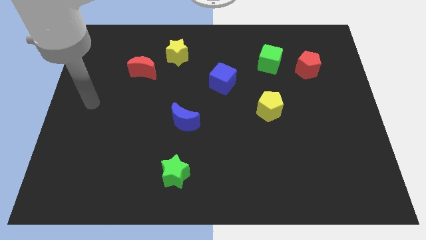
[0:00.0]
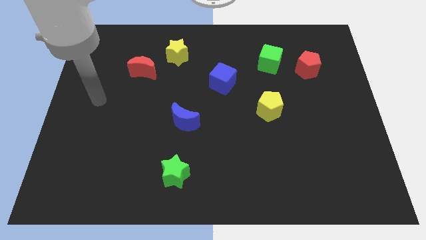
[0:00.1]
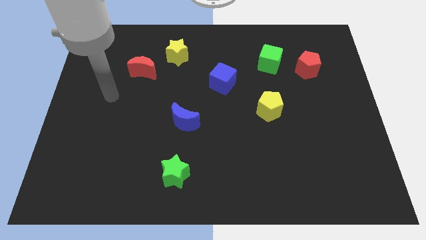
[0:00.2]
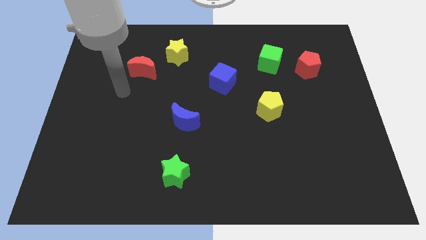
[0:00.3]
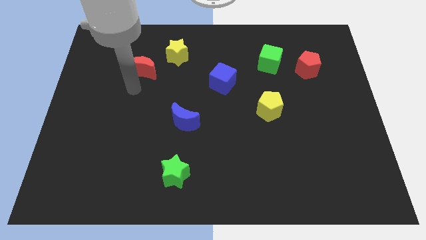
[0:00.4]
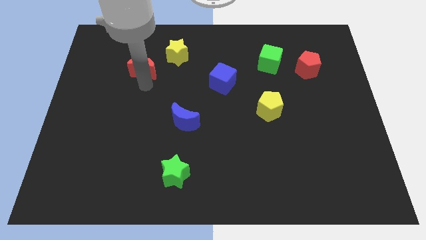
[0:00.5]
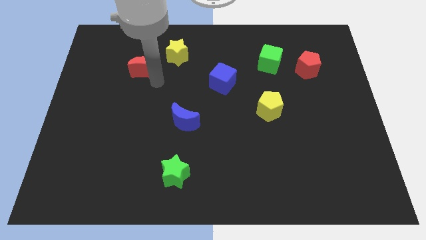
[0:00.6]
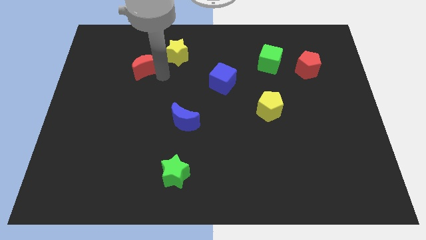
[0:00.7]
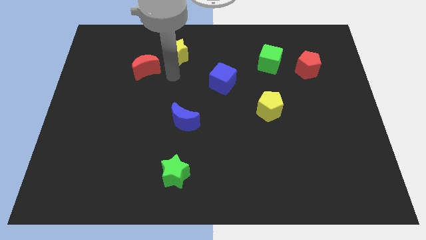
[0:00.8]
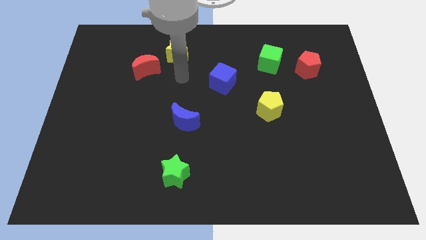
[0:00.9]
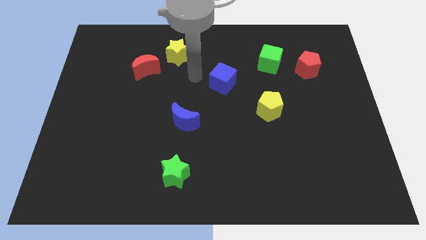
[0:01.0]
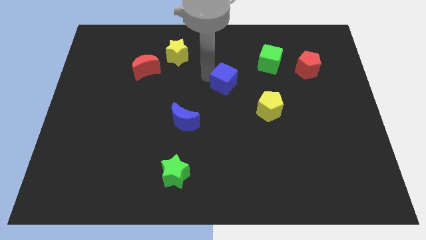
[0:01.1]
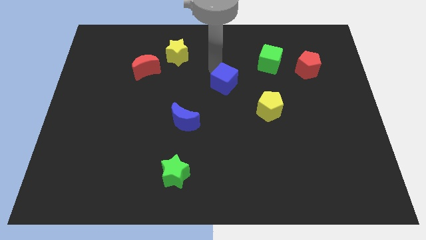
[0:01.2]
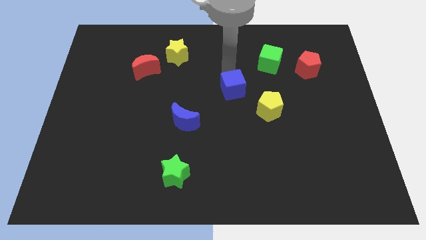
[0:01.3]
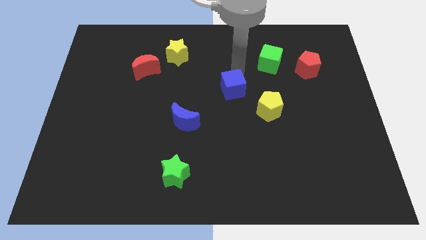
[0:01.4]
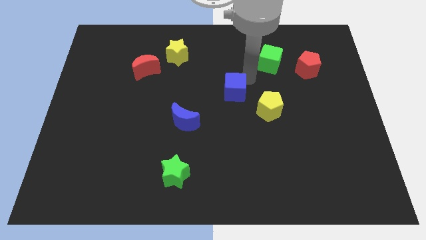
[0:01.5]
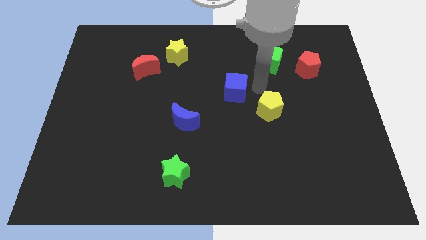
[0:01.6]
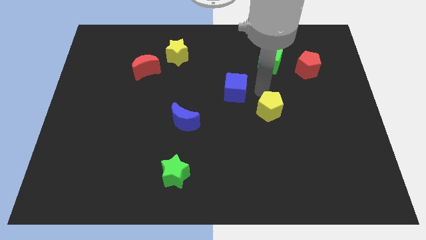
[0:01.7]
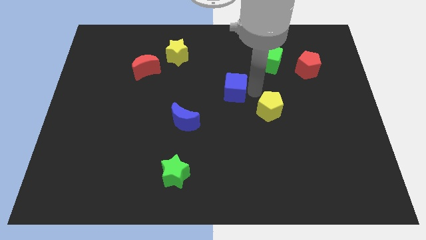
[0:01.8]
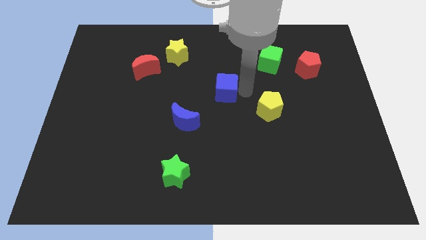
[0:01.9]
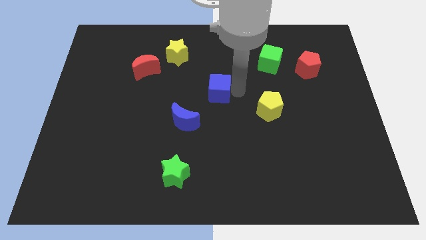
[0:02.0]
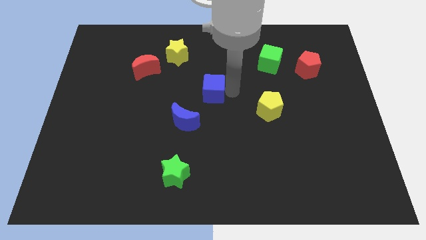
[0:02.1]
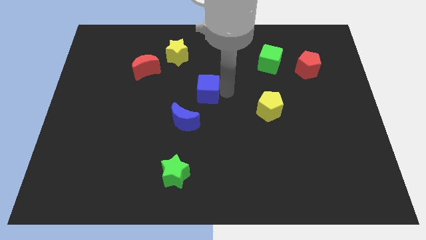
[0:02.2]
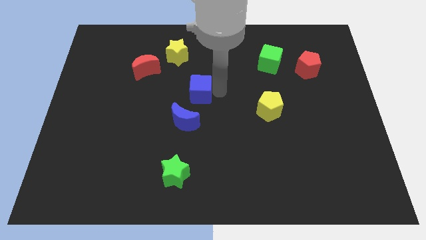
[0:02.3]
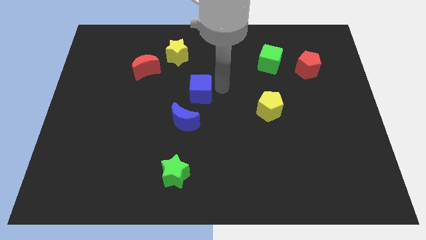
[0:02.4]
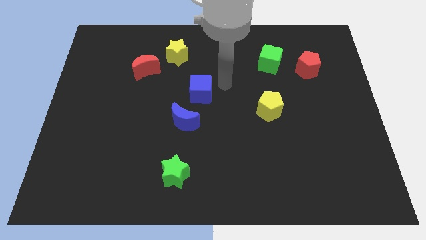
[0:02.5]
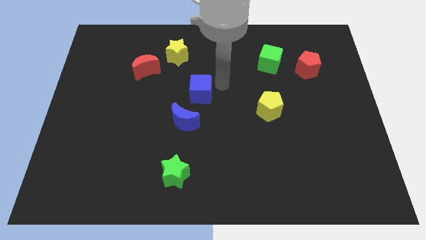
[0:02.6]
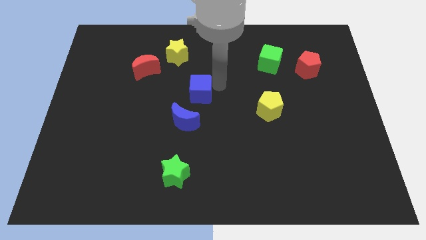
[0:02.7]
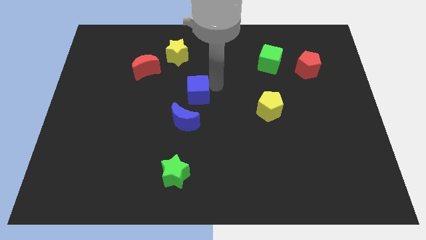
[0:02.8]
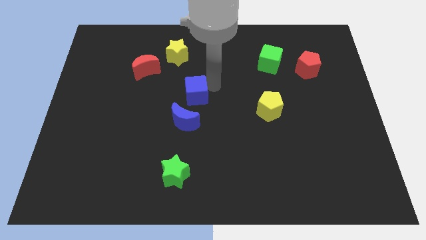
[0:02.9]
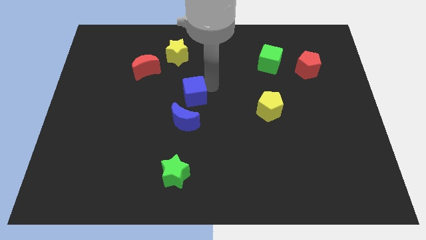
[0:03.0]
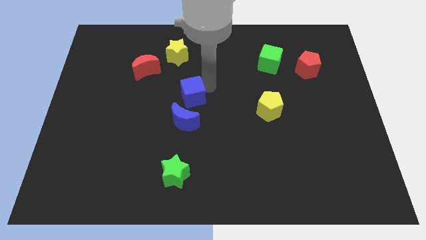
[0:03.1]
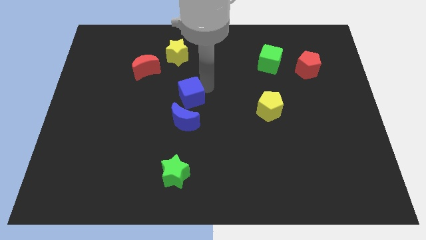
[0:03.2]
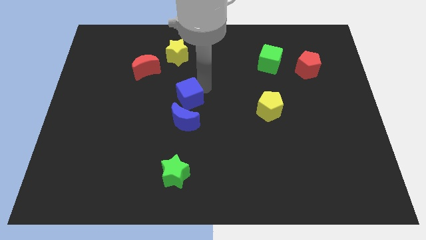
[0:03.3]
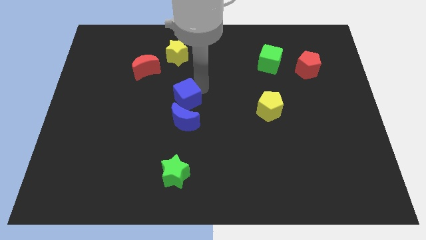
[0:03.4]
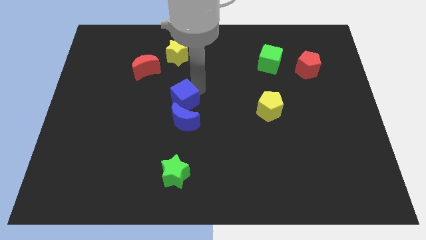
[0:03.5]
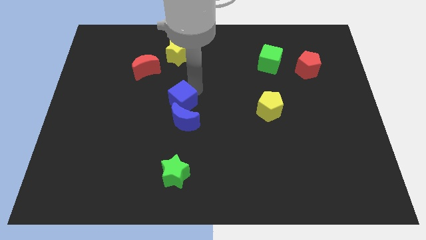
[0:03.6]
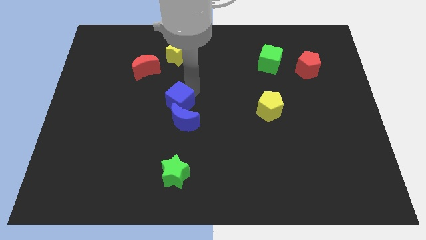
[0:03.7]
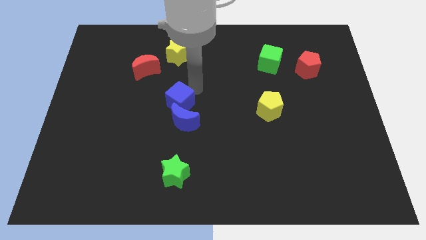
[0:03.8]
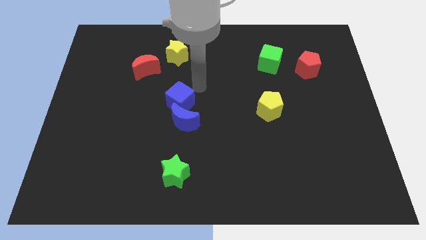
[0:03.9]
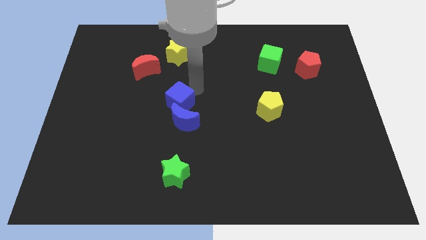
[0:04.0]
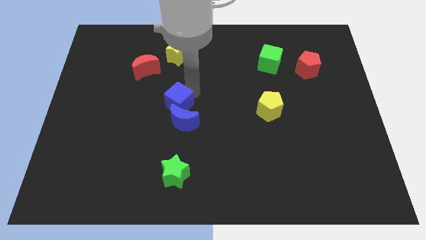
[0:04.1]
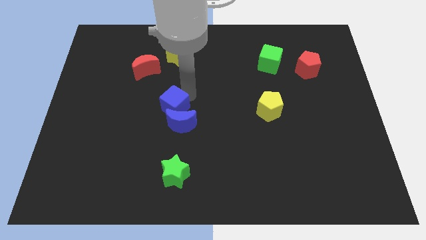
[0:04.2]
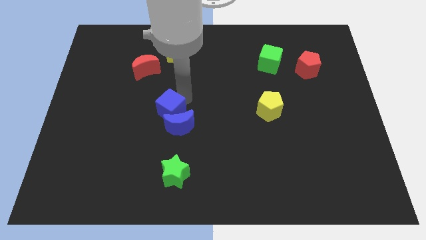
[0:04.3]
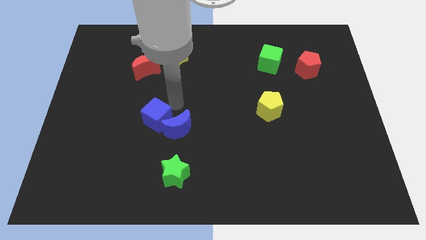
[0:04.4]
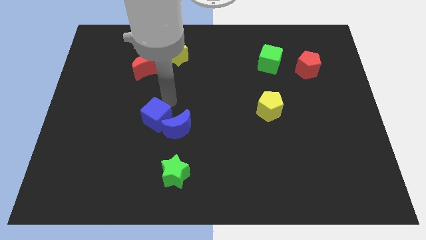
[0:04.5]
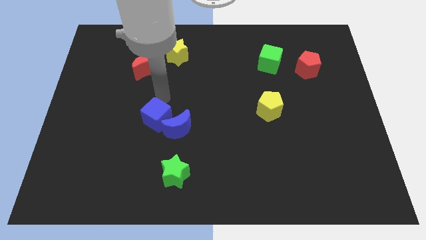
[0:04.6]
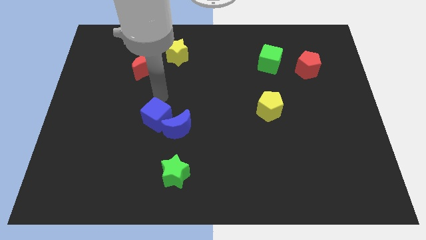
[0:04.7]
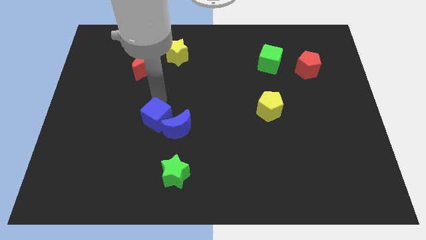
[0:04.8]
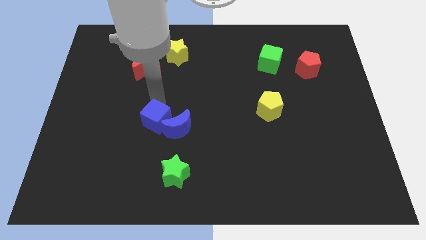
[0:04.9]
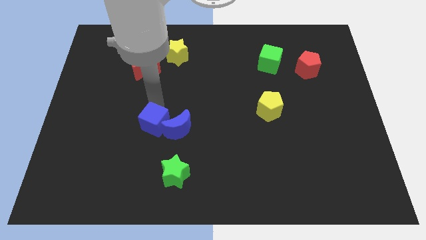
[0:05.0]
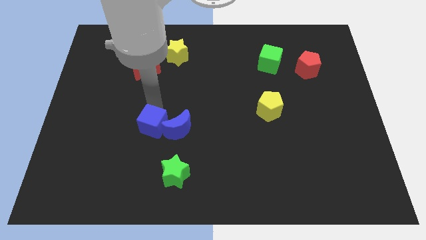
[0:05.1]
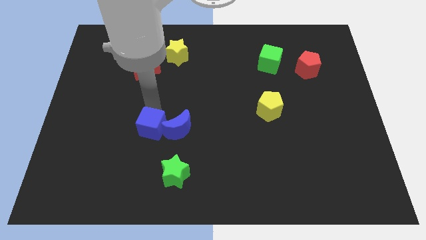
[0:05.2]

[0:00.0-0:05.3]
move the blue cube diagonally down and to the left of the blue moon
